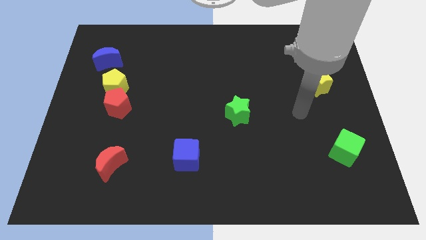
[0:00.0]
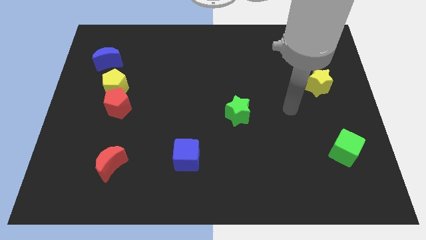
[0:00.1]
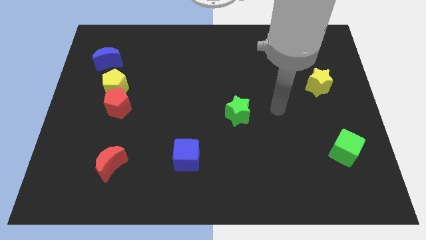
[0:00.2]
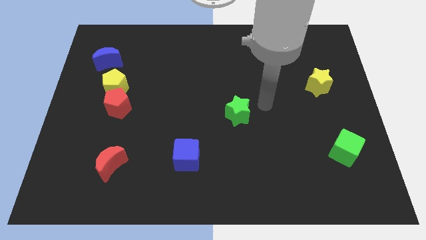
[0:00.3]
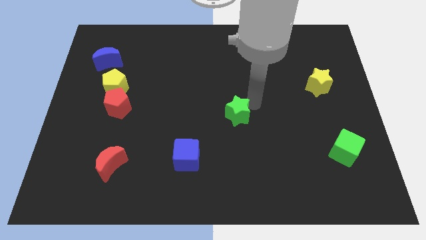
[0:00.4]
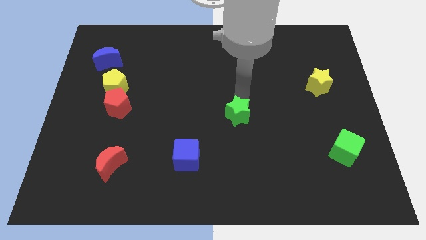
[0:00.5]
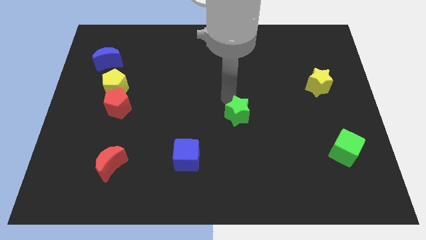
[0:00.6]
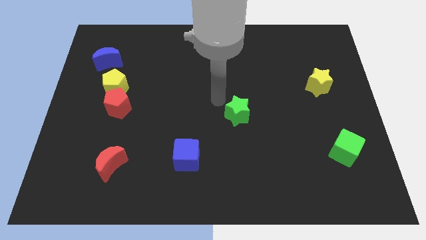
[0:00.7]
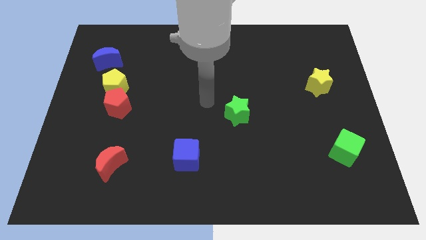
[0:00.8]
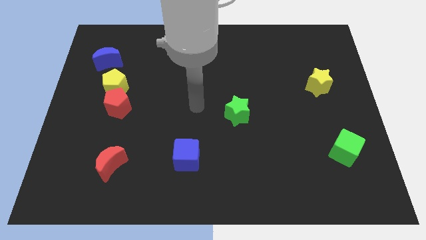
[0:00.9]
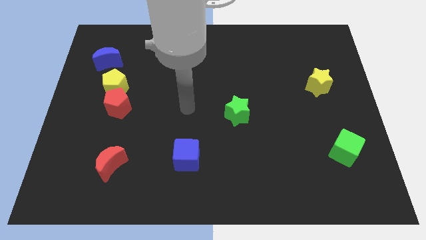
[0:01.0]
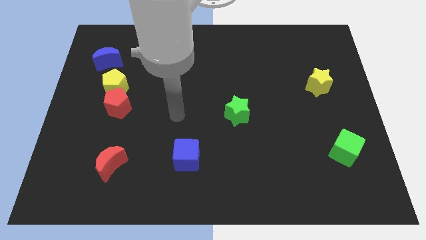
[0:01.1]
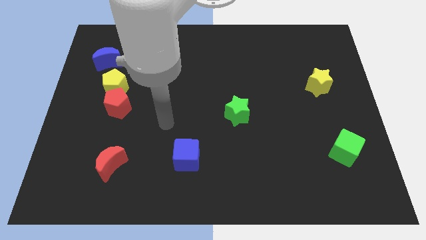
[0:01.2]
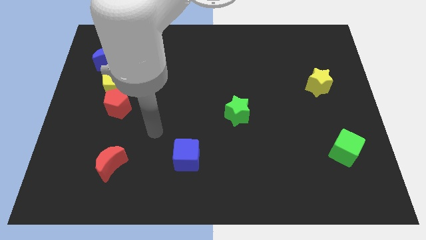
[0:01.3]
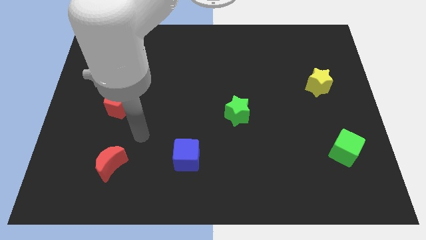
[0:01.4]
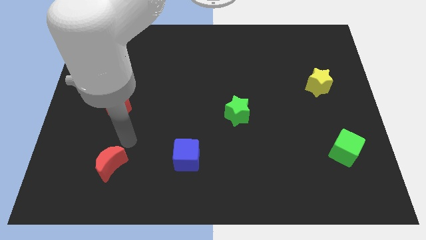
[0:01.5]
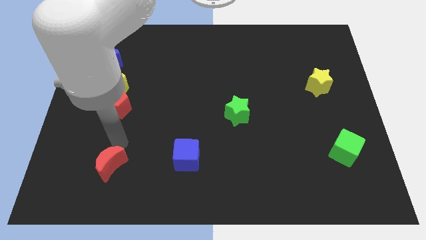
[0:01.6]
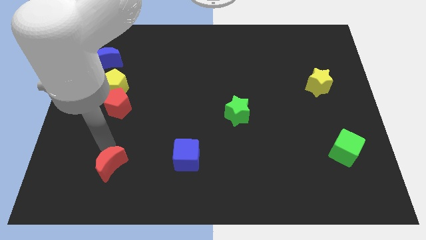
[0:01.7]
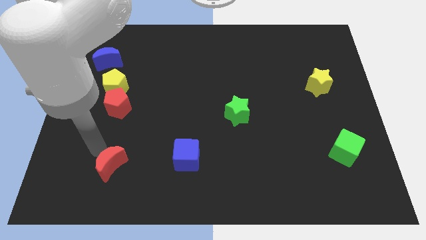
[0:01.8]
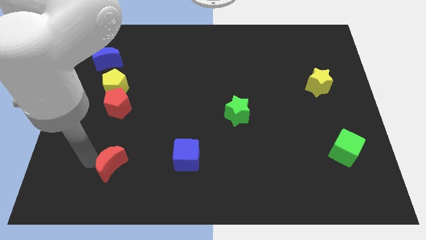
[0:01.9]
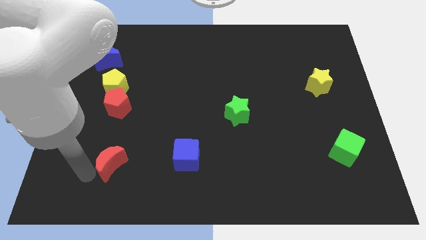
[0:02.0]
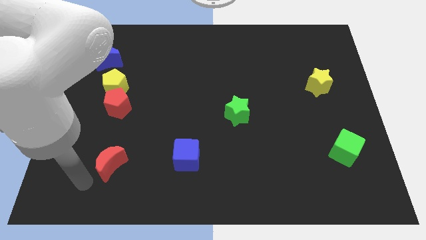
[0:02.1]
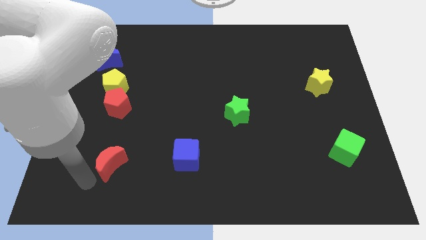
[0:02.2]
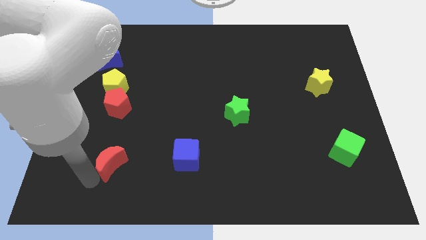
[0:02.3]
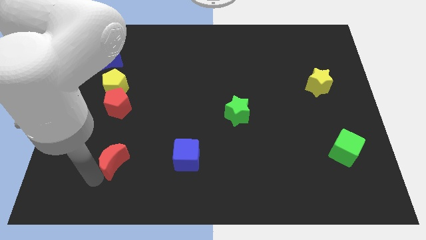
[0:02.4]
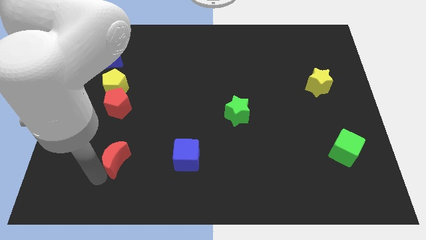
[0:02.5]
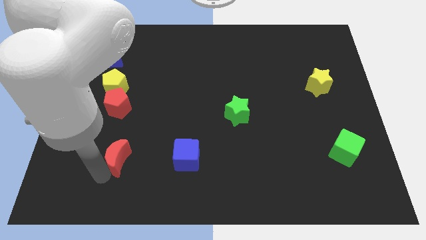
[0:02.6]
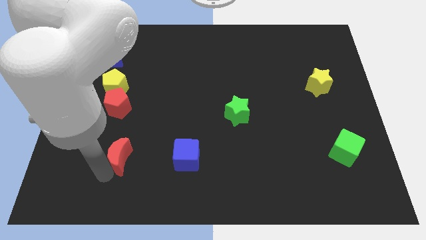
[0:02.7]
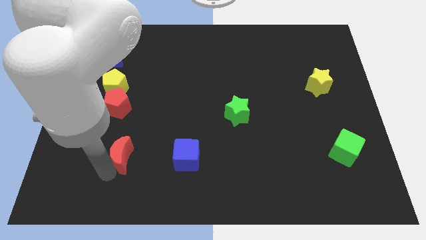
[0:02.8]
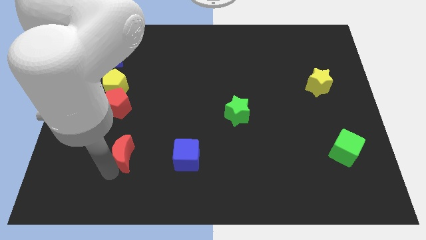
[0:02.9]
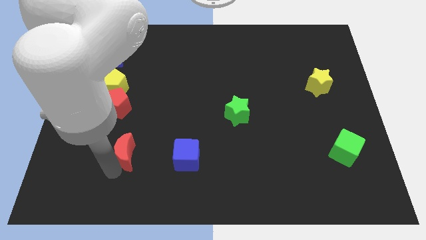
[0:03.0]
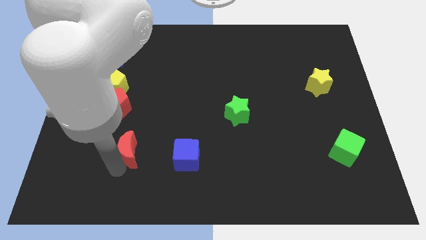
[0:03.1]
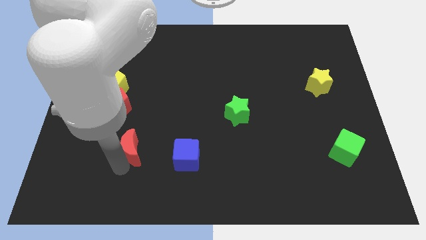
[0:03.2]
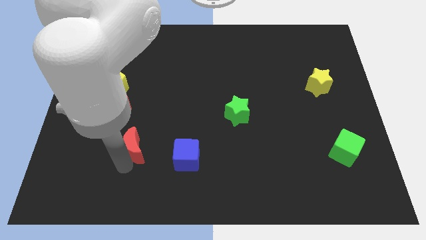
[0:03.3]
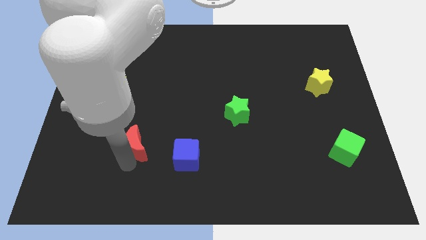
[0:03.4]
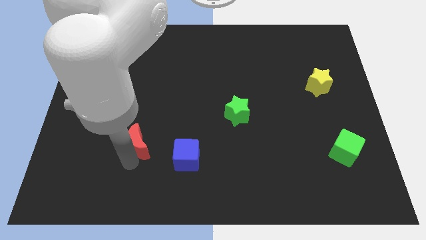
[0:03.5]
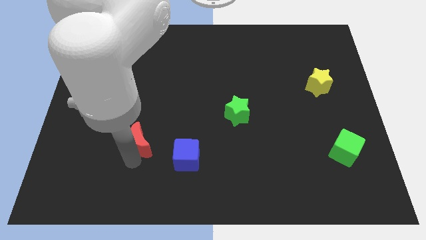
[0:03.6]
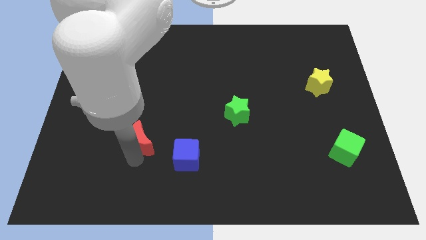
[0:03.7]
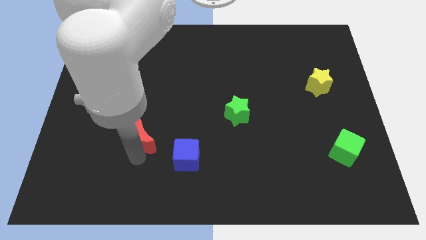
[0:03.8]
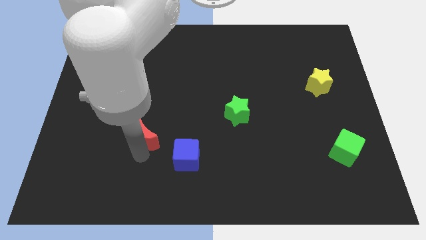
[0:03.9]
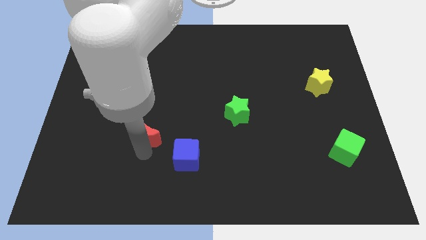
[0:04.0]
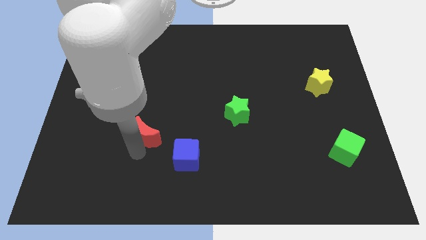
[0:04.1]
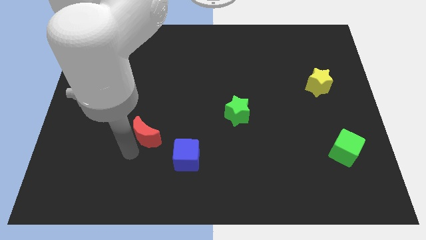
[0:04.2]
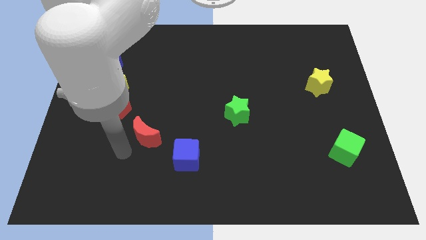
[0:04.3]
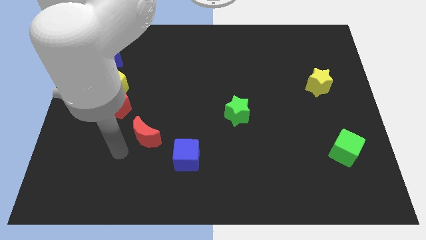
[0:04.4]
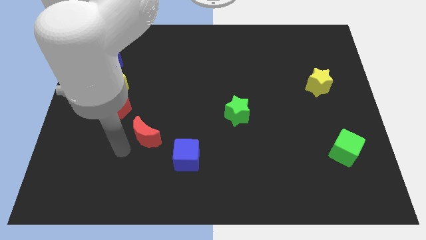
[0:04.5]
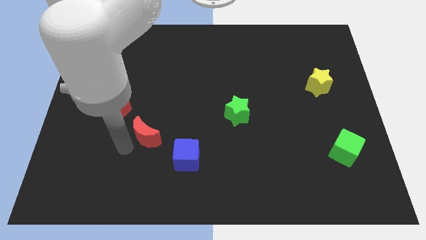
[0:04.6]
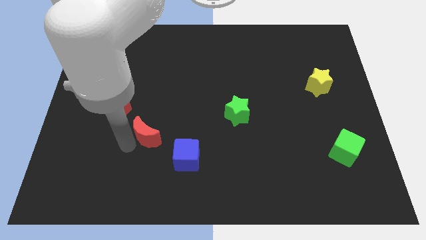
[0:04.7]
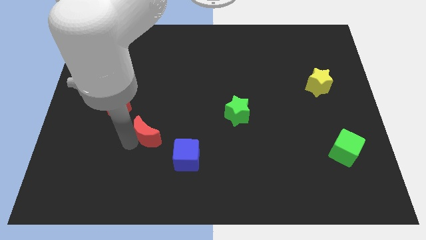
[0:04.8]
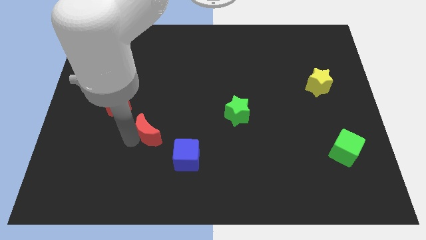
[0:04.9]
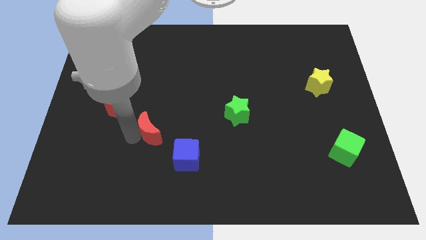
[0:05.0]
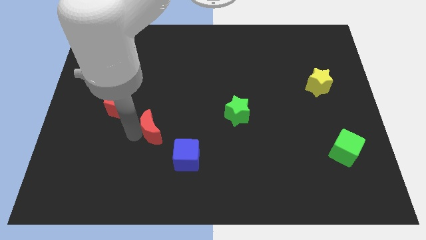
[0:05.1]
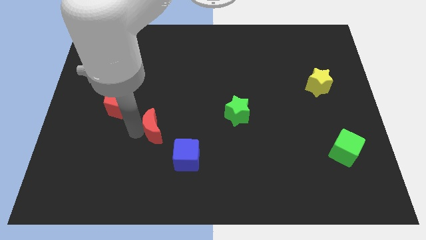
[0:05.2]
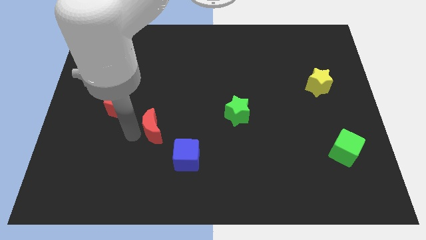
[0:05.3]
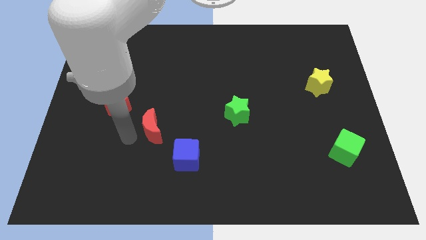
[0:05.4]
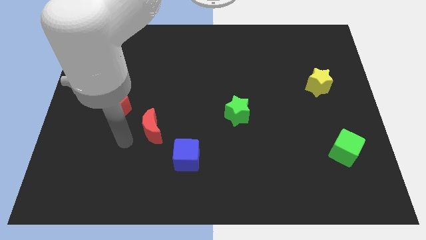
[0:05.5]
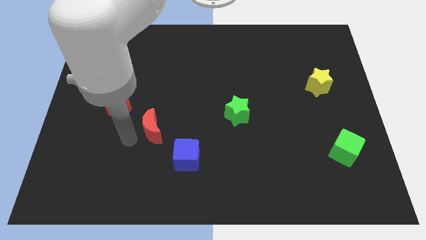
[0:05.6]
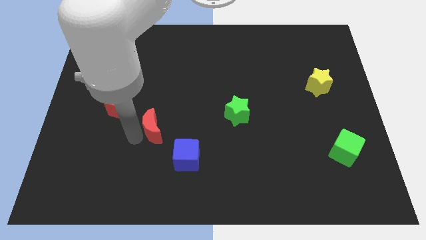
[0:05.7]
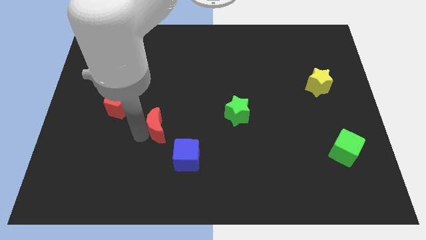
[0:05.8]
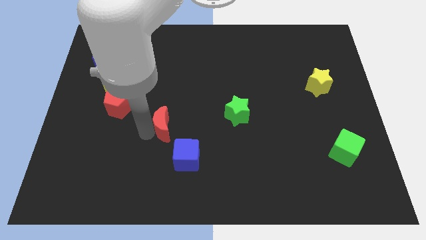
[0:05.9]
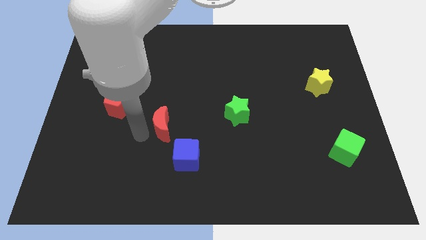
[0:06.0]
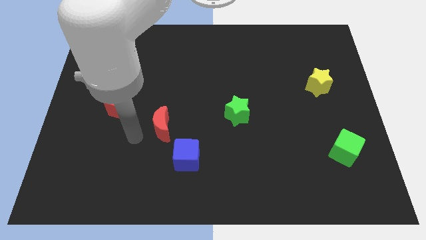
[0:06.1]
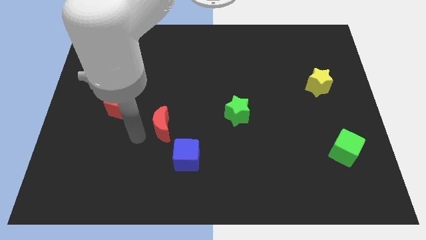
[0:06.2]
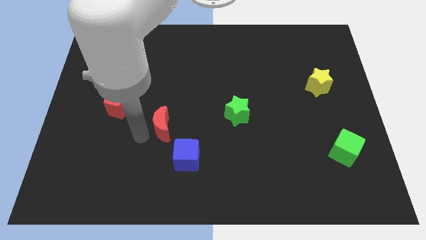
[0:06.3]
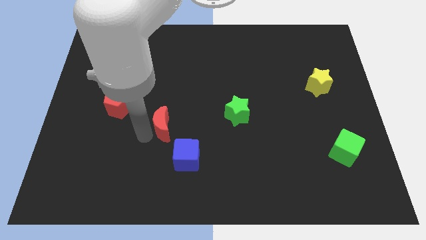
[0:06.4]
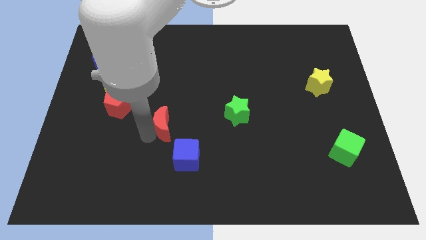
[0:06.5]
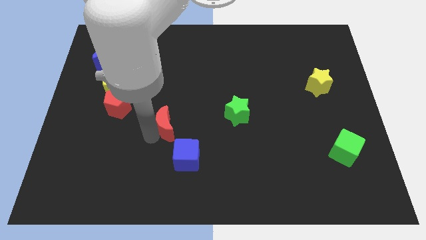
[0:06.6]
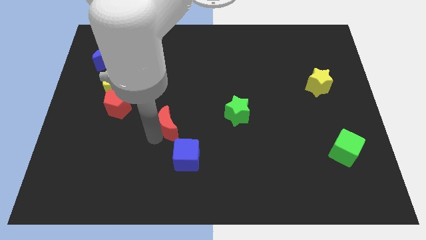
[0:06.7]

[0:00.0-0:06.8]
push the red moon to the top side of the blue cube

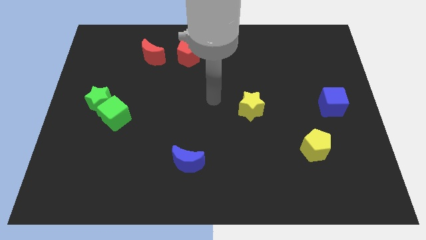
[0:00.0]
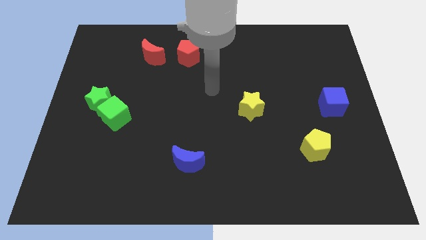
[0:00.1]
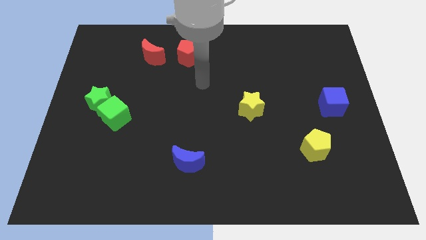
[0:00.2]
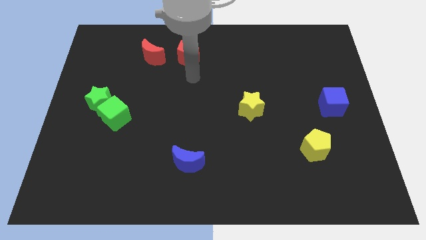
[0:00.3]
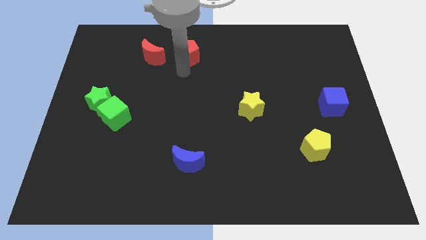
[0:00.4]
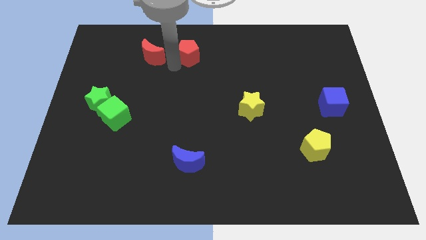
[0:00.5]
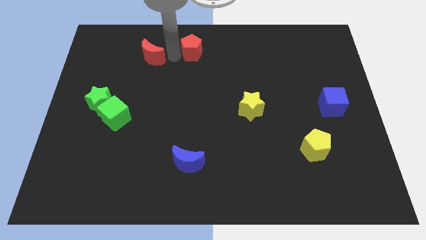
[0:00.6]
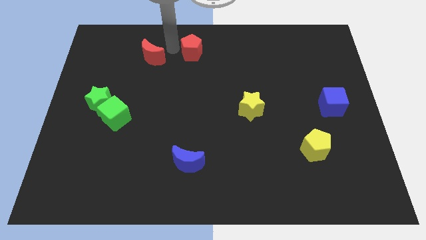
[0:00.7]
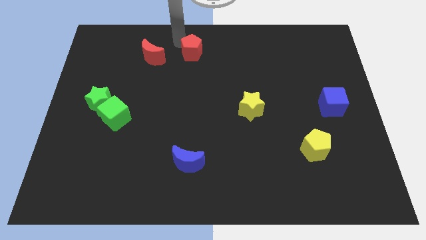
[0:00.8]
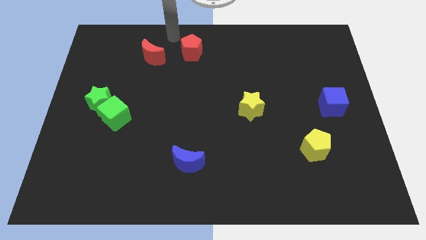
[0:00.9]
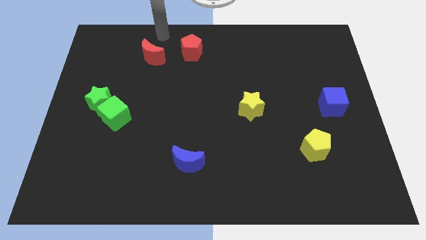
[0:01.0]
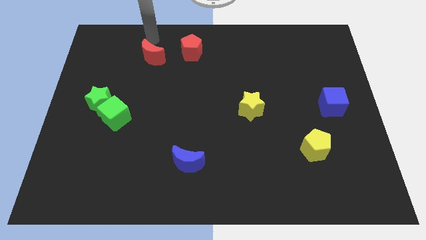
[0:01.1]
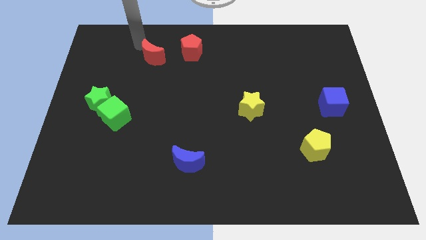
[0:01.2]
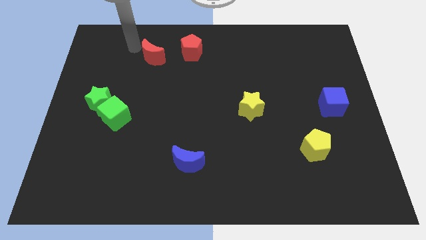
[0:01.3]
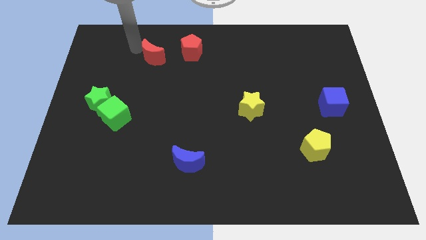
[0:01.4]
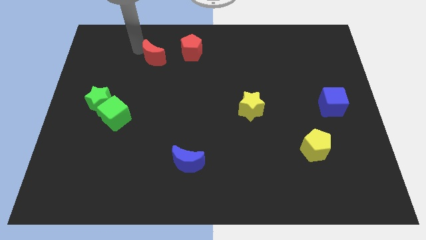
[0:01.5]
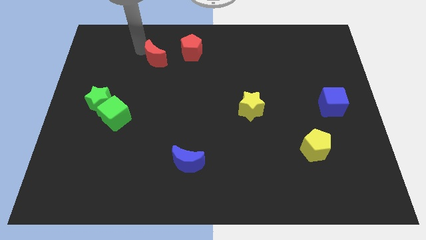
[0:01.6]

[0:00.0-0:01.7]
move the red moon diagonally down and to the left of the red pentagon
